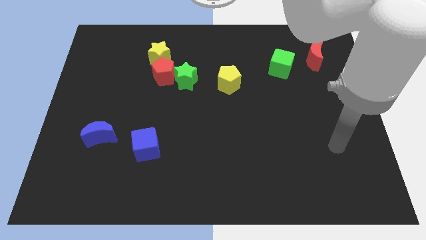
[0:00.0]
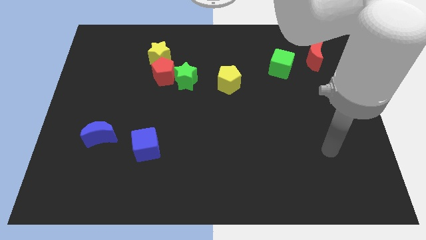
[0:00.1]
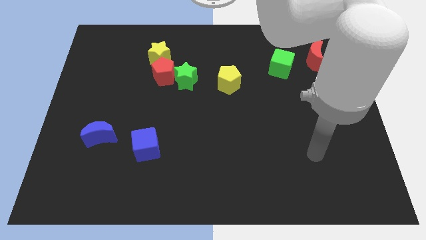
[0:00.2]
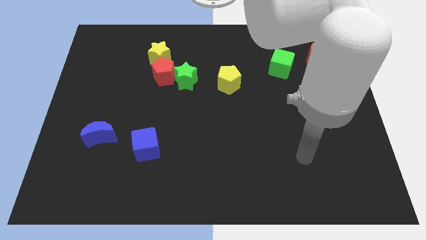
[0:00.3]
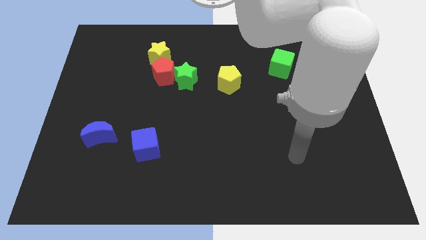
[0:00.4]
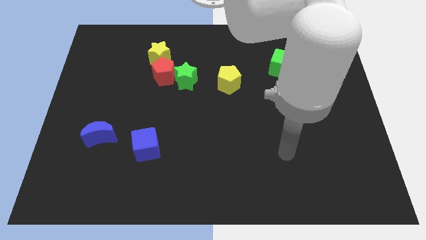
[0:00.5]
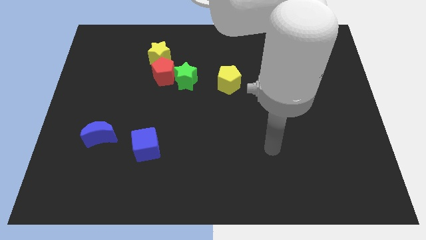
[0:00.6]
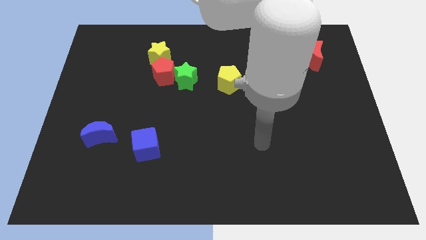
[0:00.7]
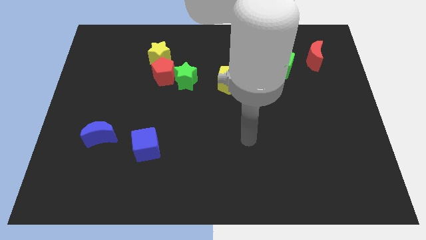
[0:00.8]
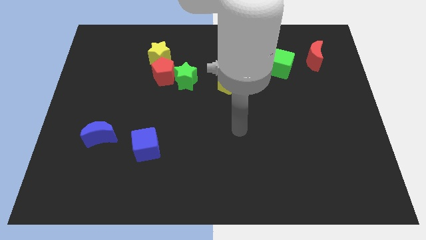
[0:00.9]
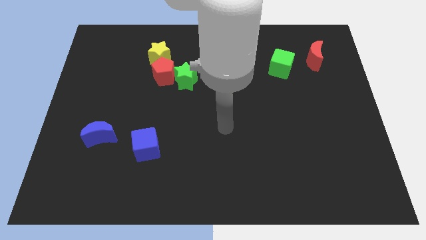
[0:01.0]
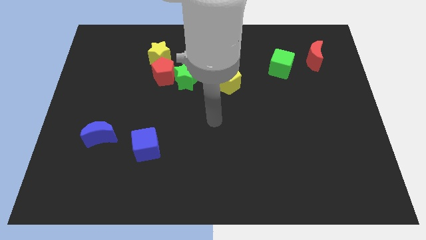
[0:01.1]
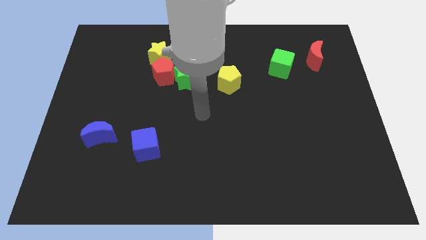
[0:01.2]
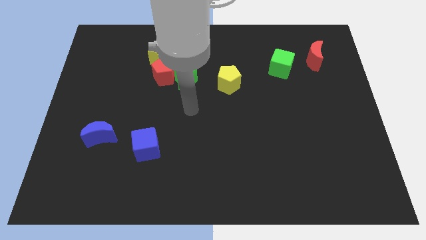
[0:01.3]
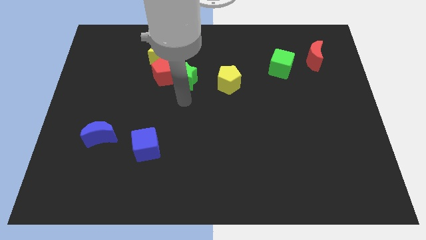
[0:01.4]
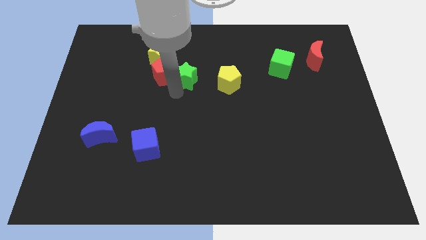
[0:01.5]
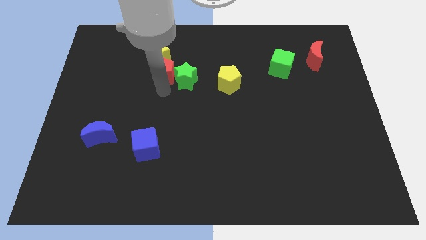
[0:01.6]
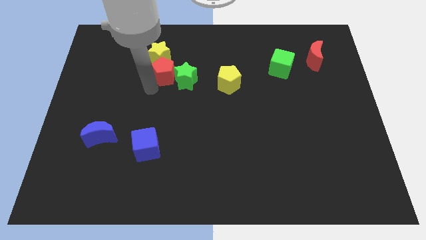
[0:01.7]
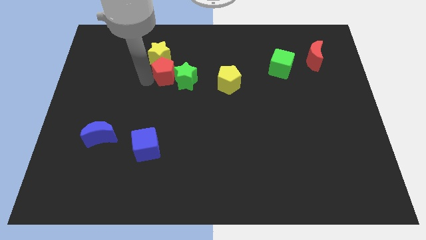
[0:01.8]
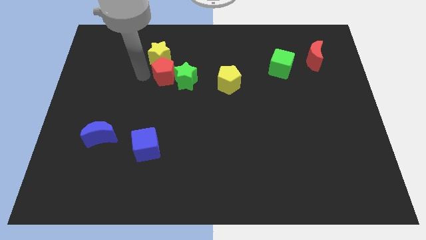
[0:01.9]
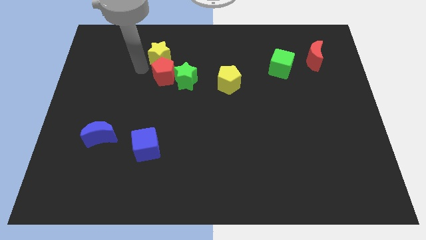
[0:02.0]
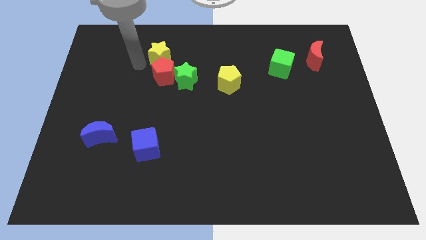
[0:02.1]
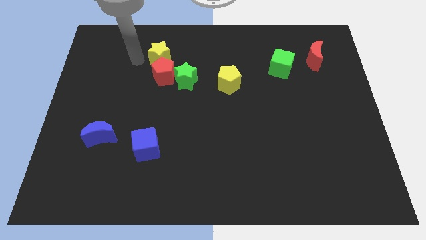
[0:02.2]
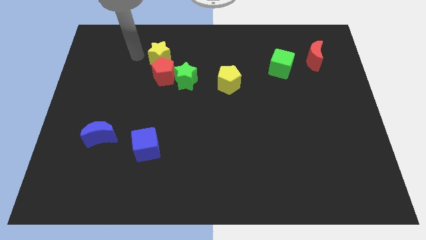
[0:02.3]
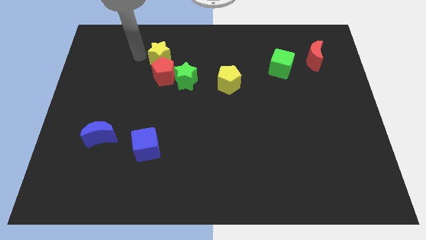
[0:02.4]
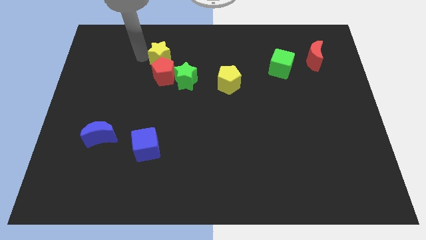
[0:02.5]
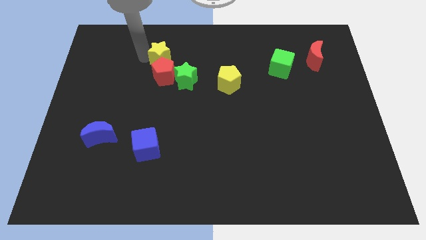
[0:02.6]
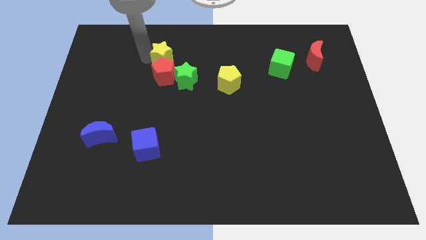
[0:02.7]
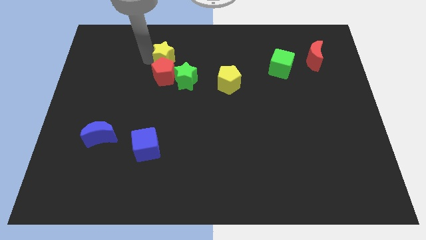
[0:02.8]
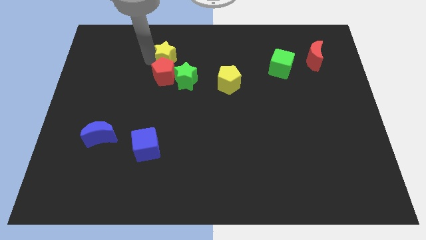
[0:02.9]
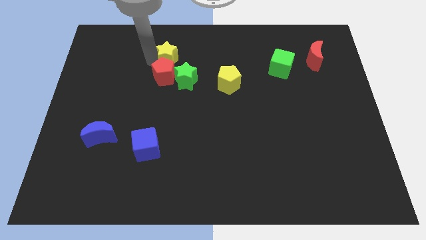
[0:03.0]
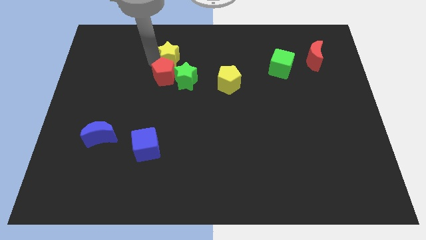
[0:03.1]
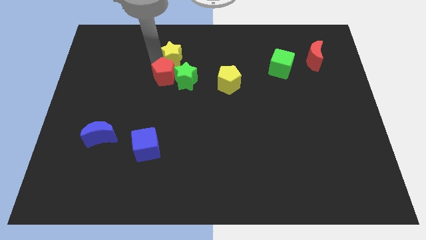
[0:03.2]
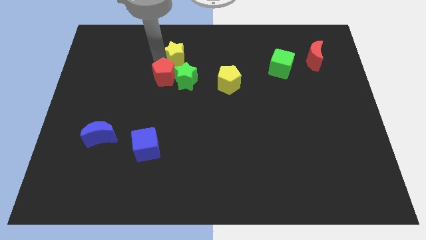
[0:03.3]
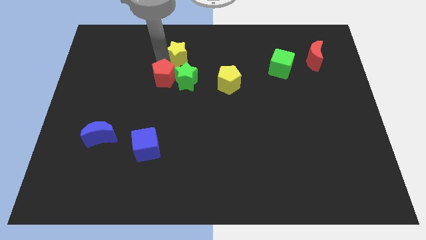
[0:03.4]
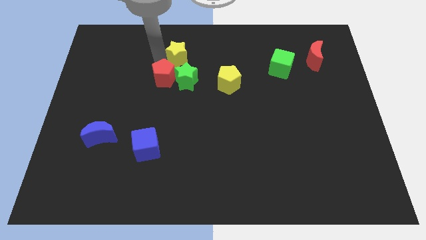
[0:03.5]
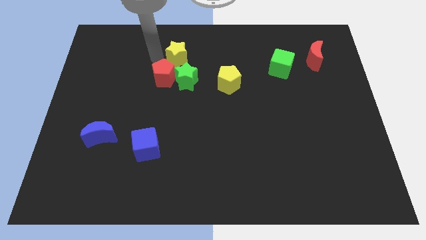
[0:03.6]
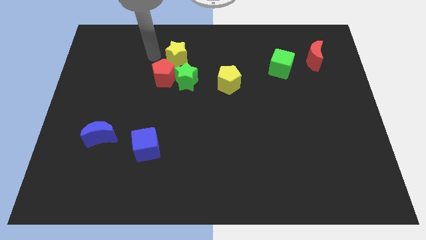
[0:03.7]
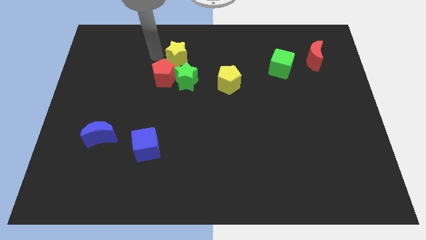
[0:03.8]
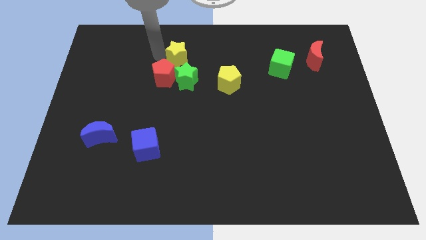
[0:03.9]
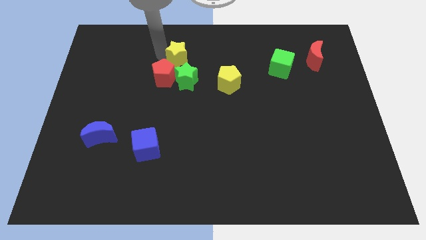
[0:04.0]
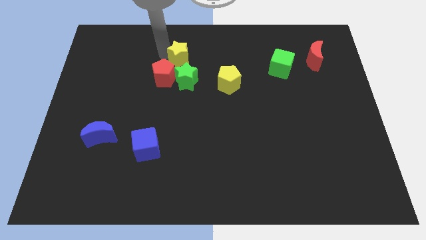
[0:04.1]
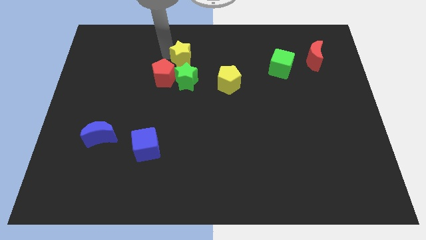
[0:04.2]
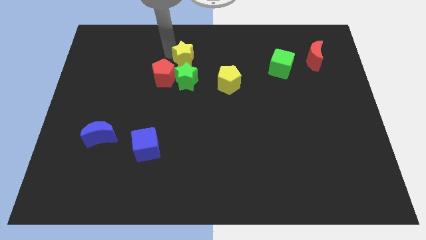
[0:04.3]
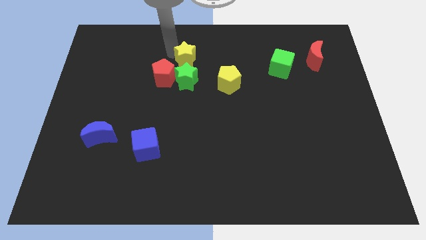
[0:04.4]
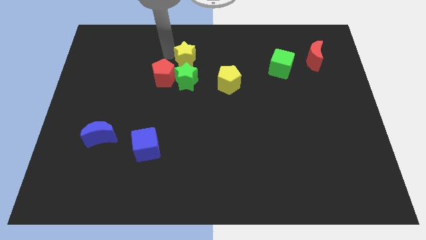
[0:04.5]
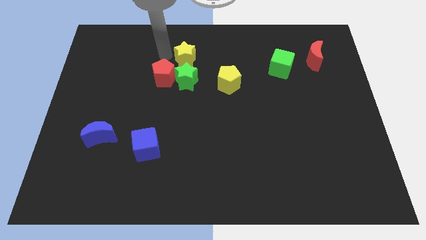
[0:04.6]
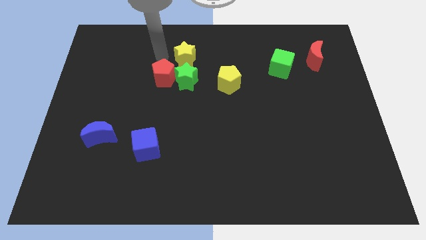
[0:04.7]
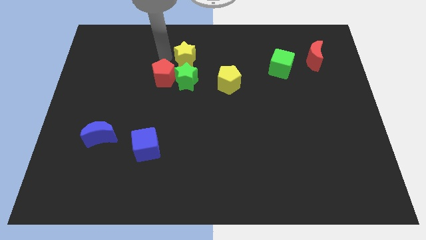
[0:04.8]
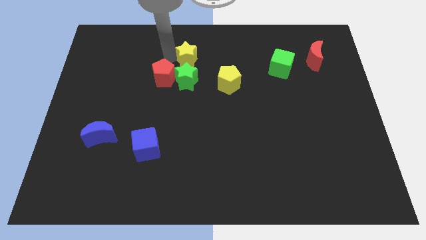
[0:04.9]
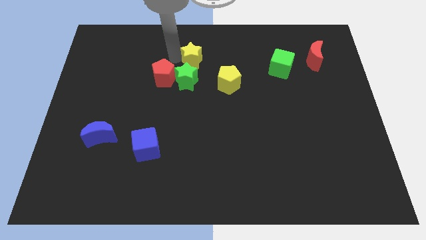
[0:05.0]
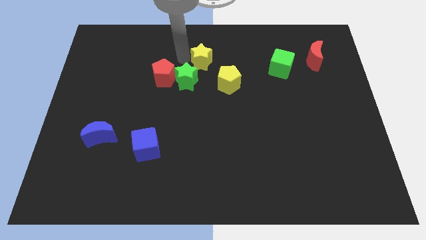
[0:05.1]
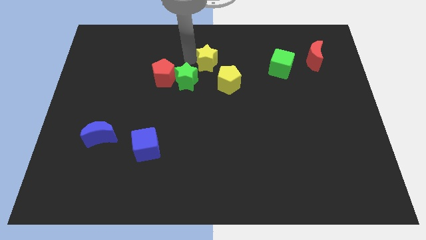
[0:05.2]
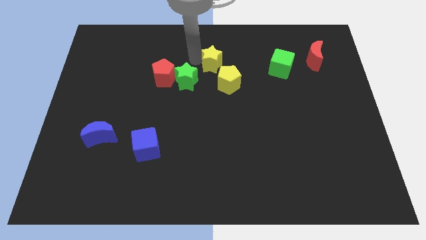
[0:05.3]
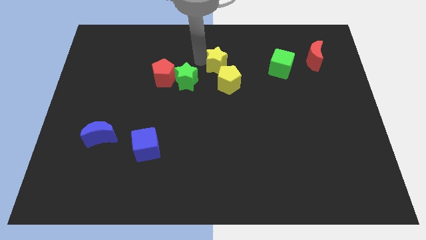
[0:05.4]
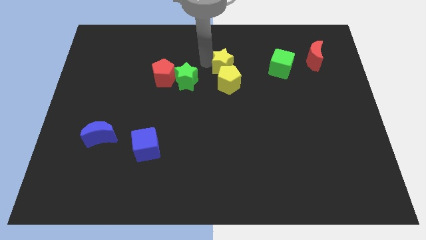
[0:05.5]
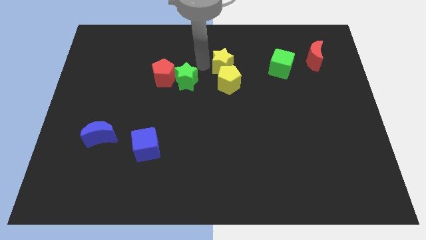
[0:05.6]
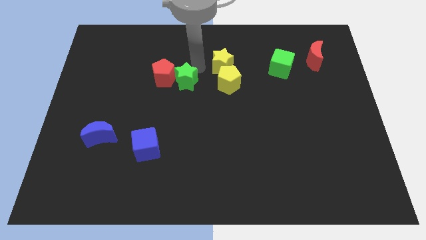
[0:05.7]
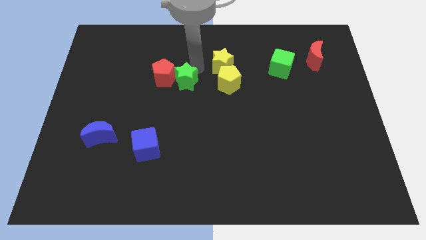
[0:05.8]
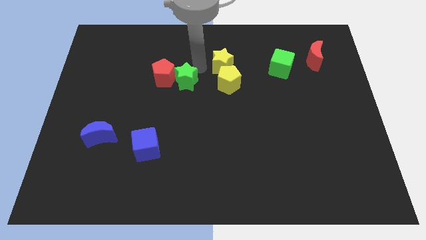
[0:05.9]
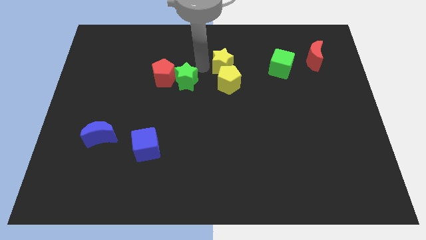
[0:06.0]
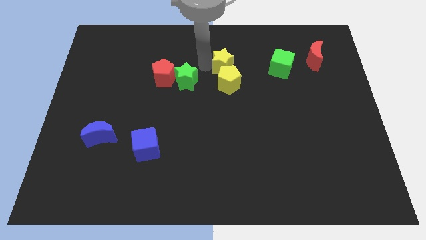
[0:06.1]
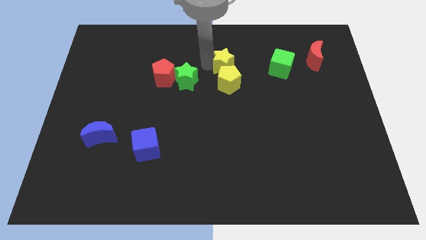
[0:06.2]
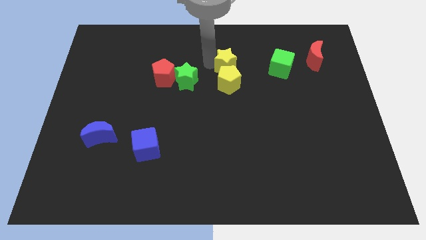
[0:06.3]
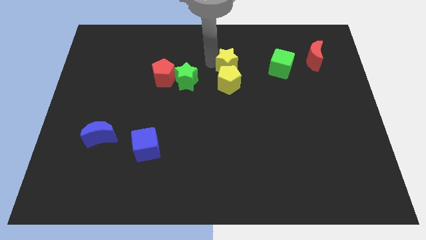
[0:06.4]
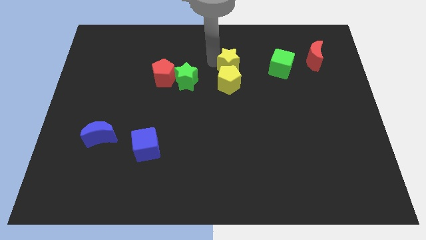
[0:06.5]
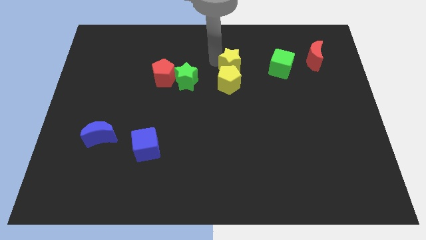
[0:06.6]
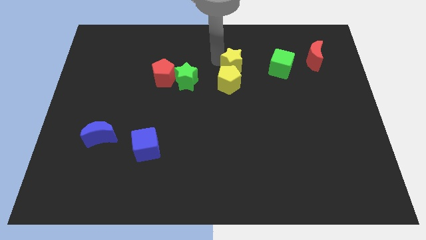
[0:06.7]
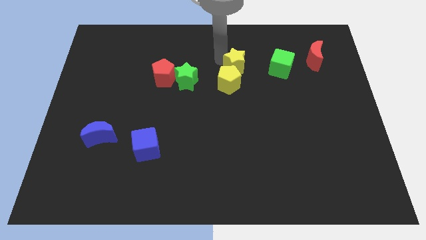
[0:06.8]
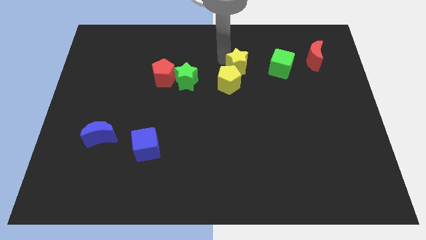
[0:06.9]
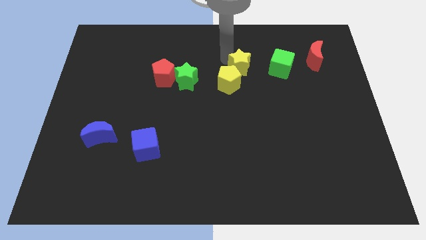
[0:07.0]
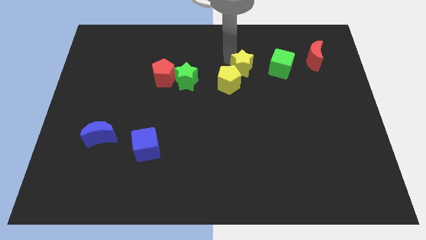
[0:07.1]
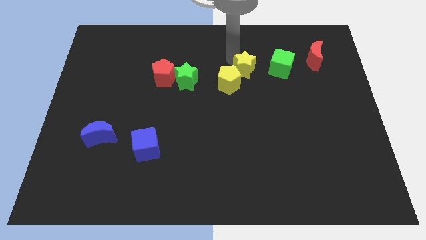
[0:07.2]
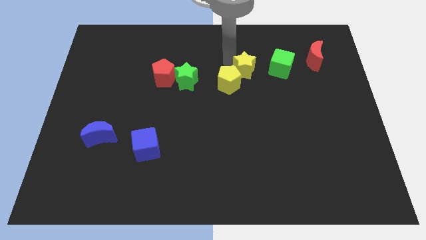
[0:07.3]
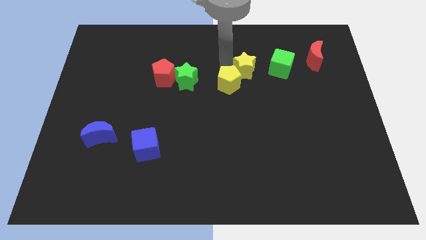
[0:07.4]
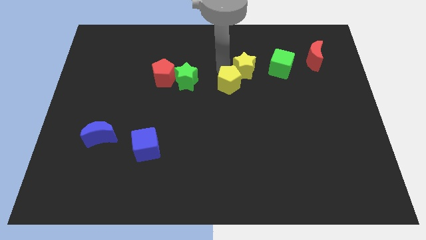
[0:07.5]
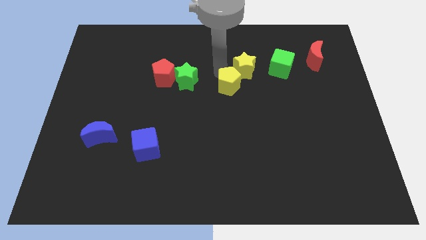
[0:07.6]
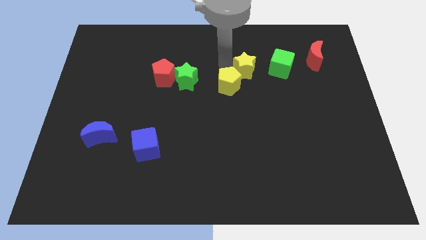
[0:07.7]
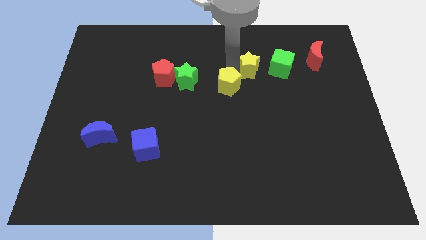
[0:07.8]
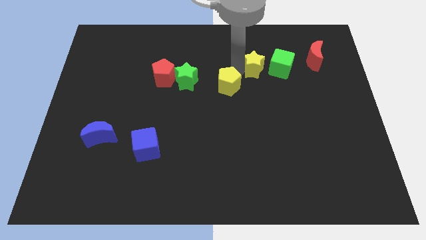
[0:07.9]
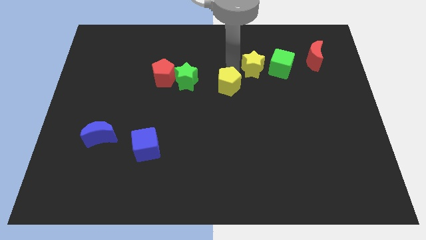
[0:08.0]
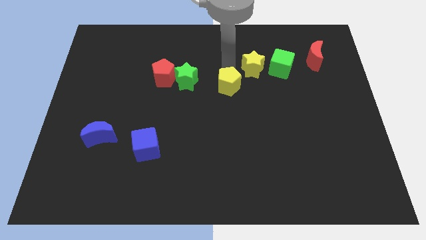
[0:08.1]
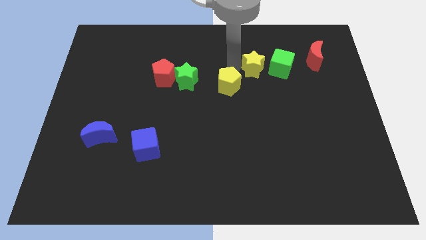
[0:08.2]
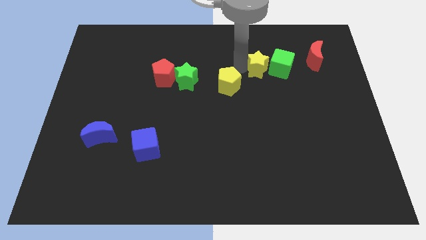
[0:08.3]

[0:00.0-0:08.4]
move the yellow star to the green cube
